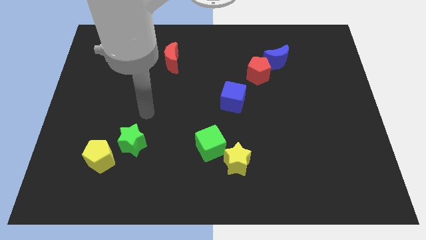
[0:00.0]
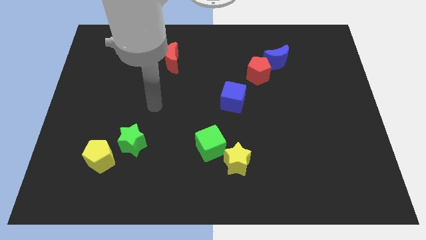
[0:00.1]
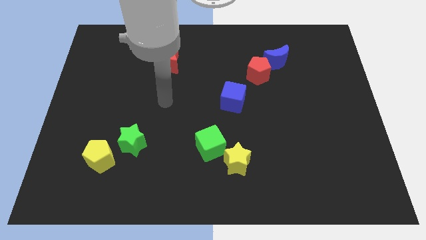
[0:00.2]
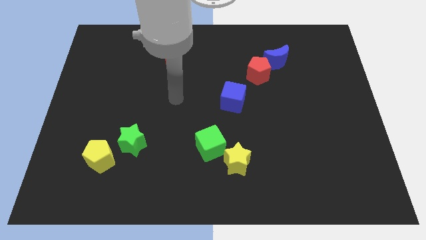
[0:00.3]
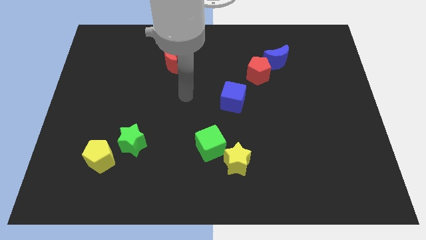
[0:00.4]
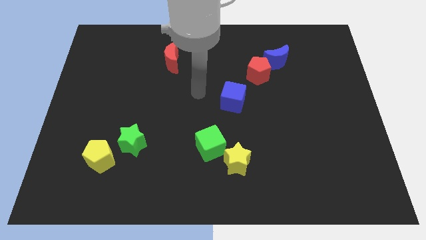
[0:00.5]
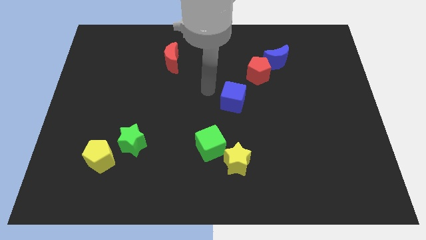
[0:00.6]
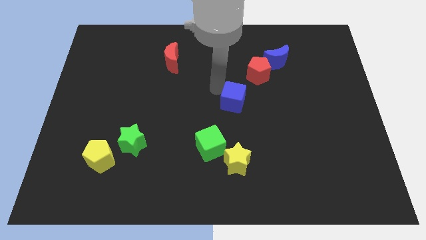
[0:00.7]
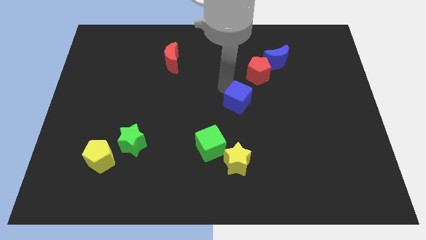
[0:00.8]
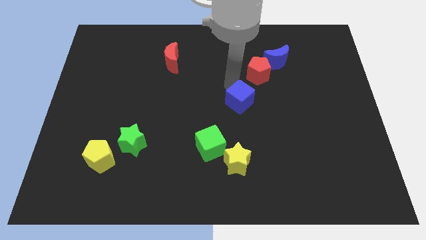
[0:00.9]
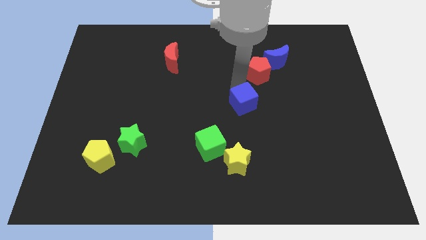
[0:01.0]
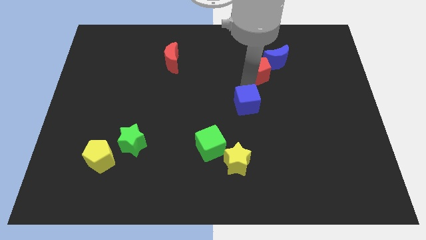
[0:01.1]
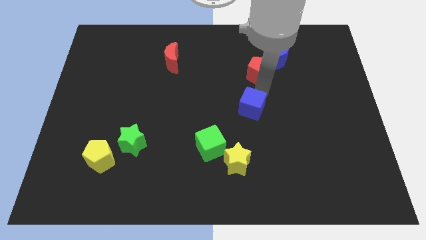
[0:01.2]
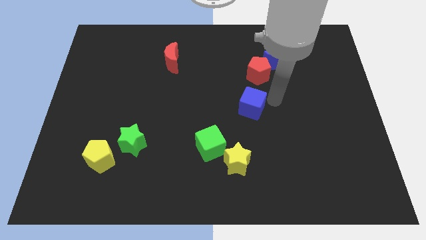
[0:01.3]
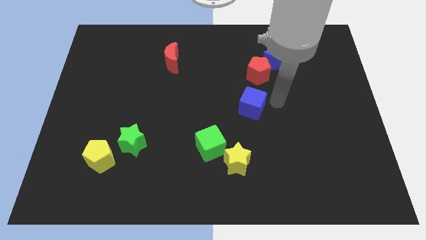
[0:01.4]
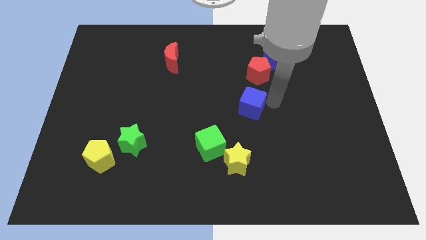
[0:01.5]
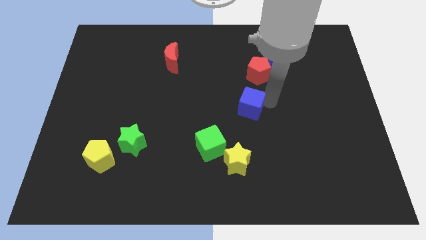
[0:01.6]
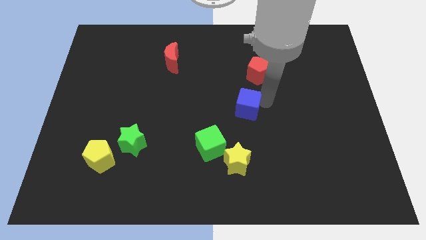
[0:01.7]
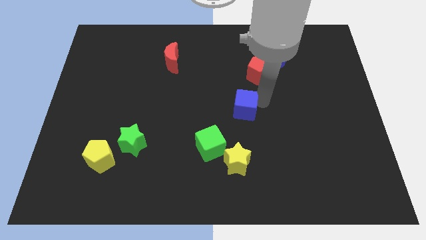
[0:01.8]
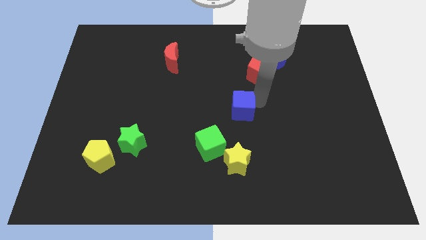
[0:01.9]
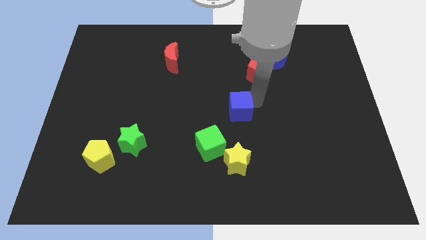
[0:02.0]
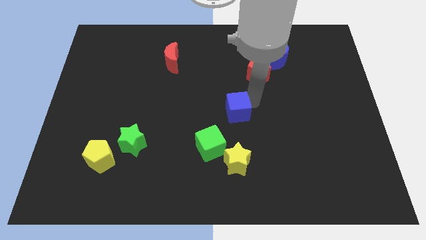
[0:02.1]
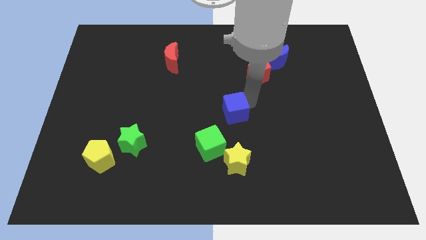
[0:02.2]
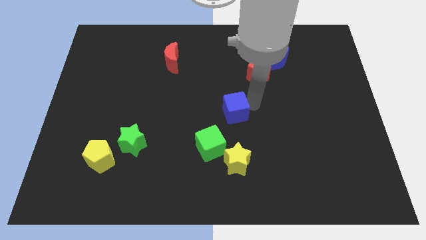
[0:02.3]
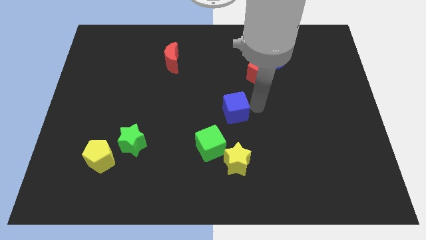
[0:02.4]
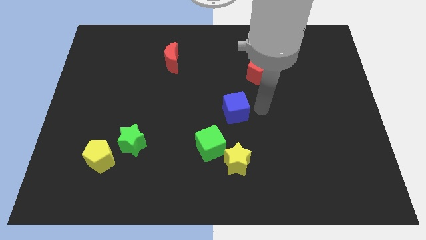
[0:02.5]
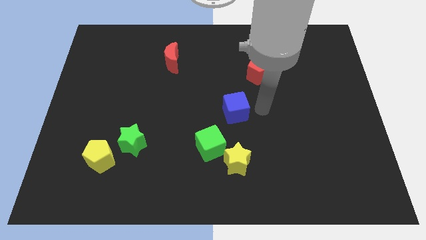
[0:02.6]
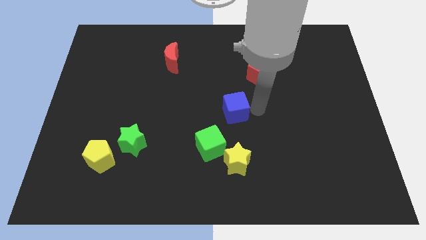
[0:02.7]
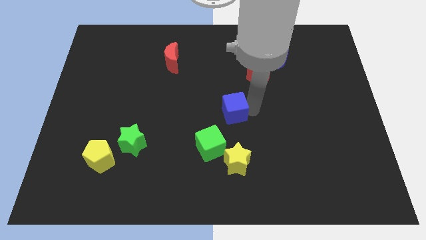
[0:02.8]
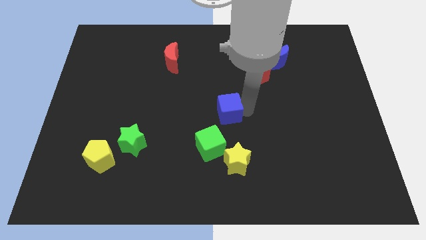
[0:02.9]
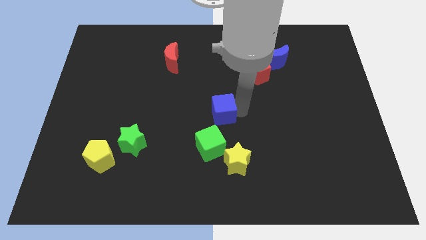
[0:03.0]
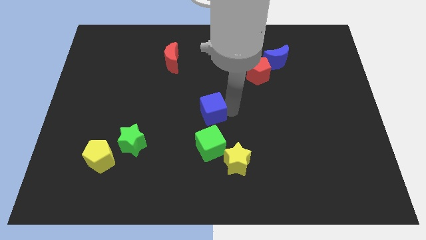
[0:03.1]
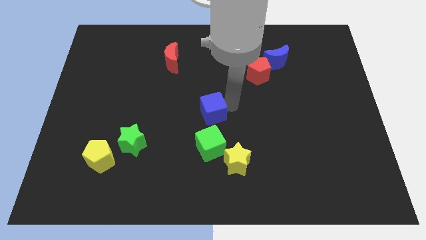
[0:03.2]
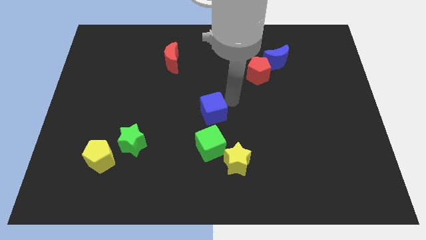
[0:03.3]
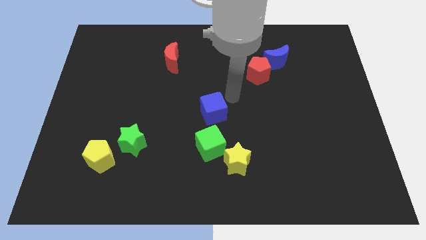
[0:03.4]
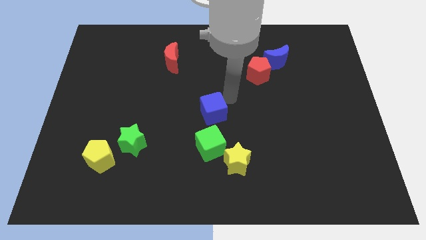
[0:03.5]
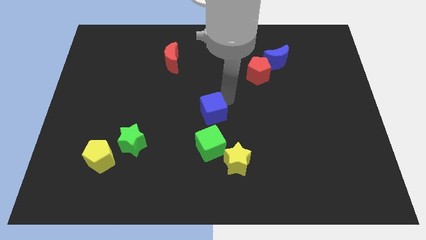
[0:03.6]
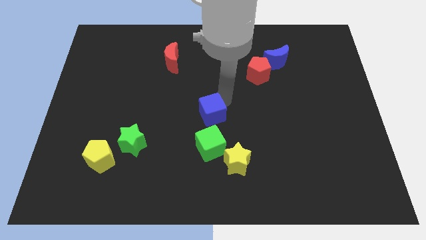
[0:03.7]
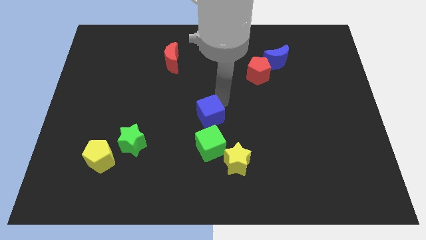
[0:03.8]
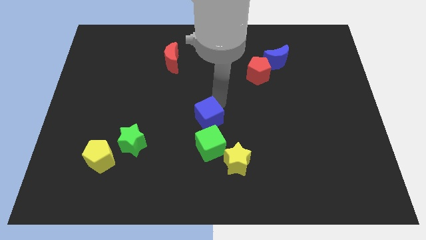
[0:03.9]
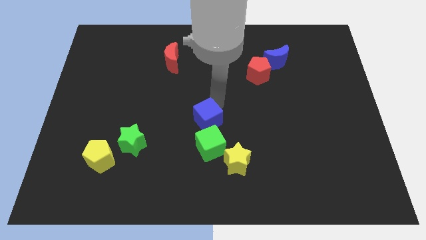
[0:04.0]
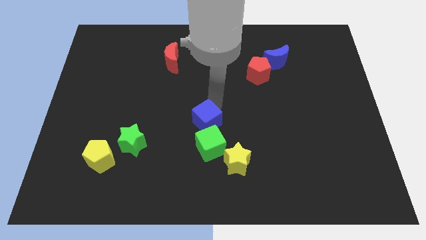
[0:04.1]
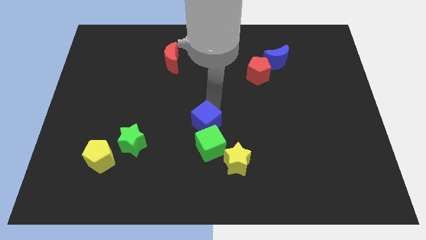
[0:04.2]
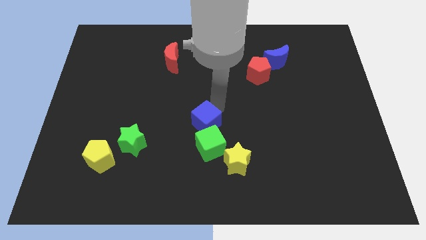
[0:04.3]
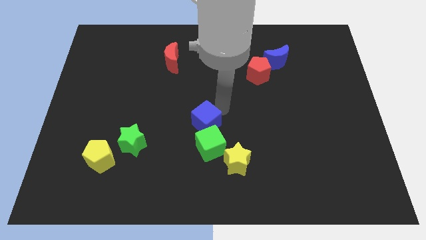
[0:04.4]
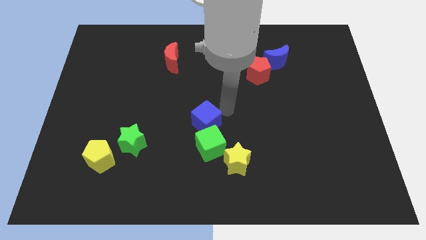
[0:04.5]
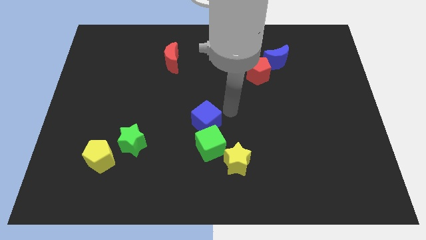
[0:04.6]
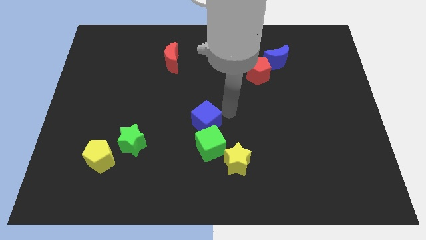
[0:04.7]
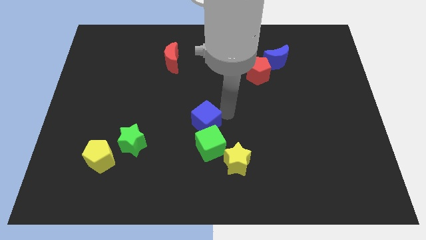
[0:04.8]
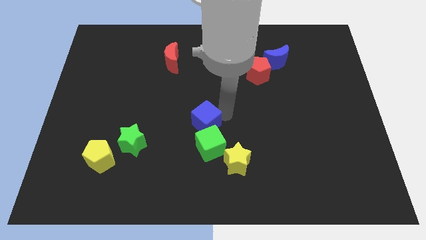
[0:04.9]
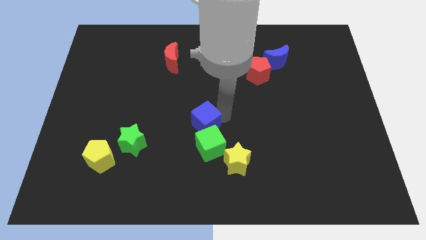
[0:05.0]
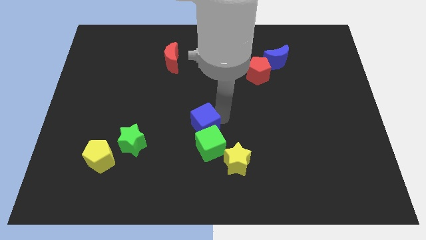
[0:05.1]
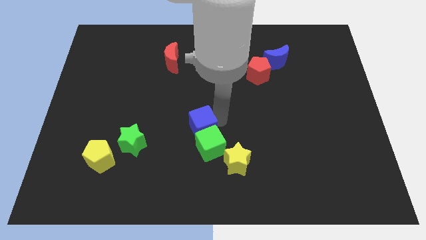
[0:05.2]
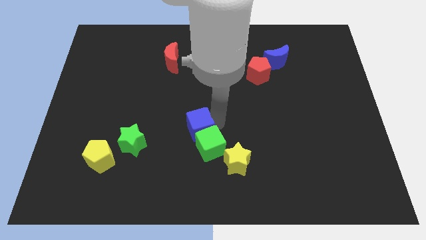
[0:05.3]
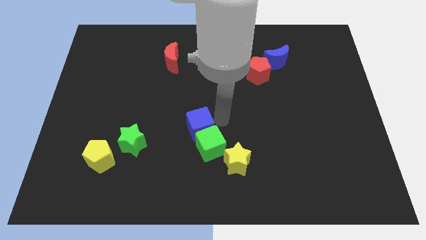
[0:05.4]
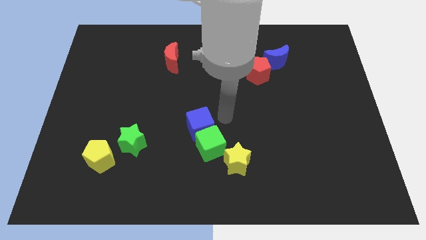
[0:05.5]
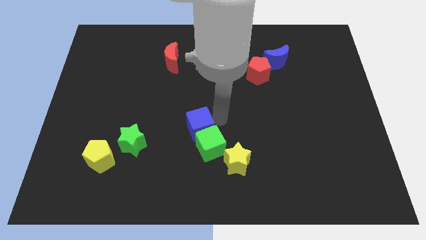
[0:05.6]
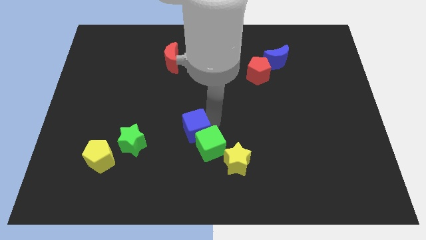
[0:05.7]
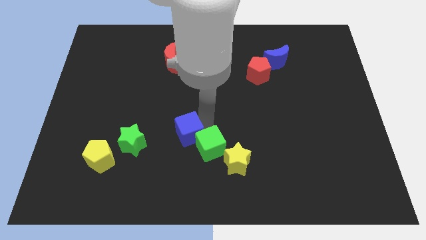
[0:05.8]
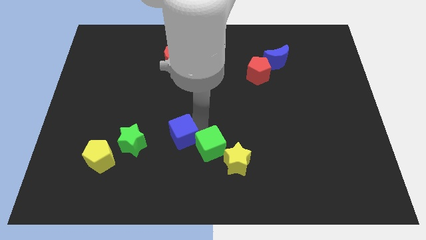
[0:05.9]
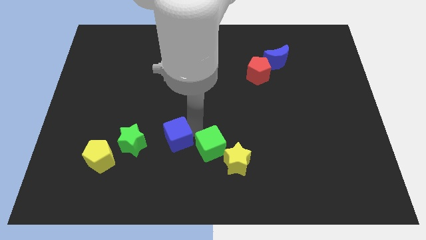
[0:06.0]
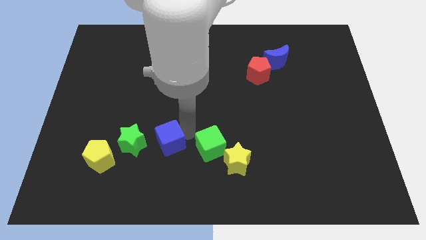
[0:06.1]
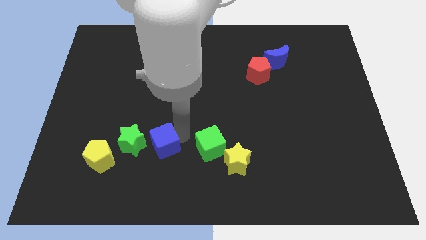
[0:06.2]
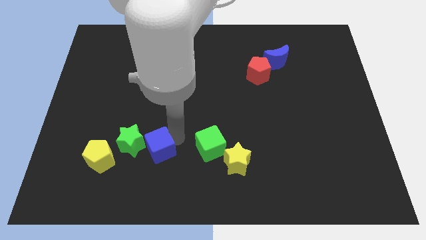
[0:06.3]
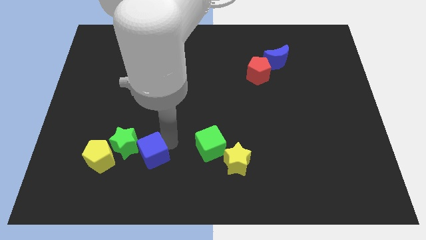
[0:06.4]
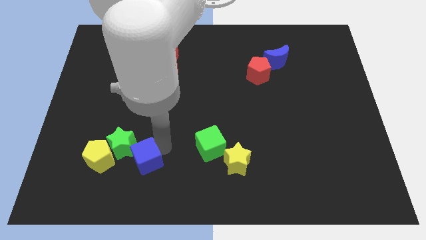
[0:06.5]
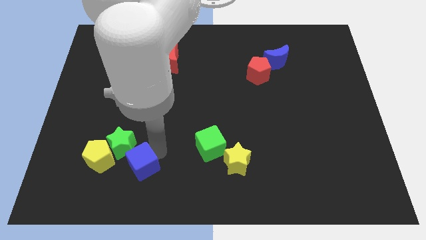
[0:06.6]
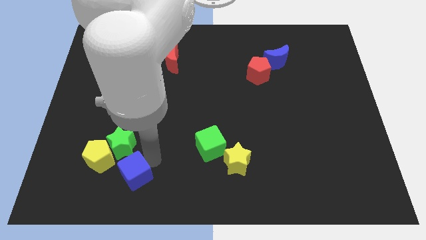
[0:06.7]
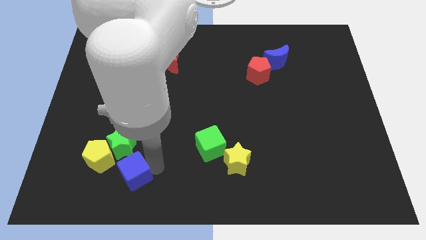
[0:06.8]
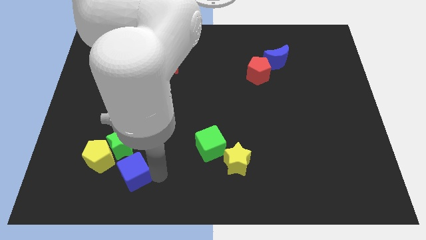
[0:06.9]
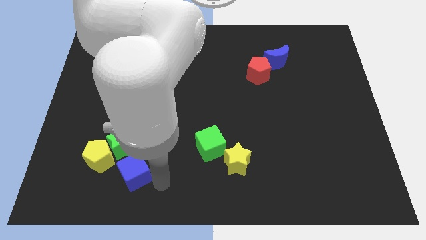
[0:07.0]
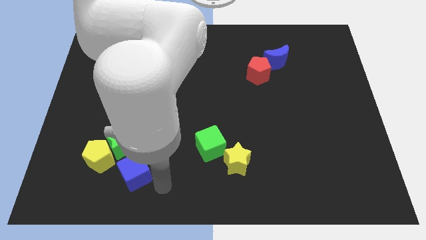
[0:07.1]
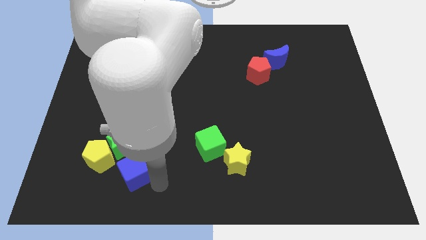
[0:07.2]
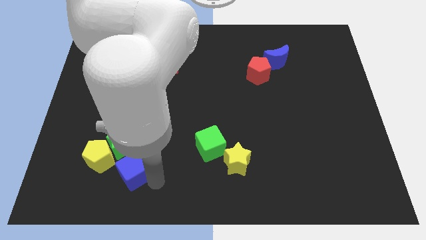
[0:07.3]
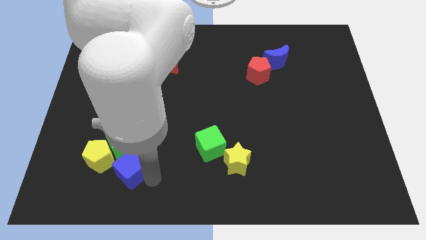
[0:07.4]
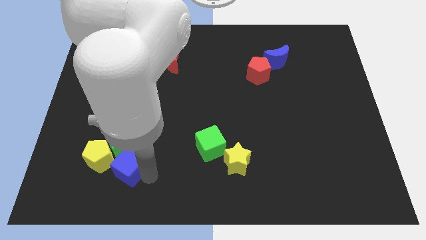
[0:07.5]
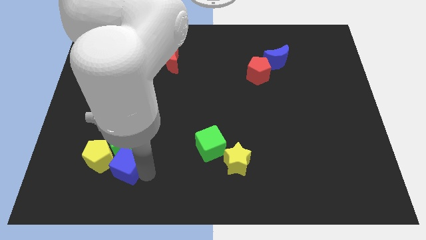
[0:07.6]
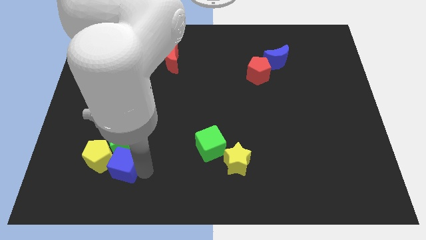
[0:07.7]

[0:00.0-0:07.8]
slide the blue cube close to the yellow pentagon
